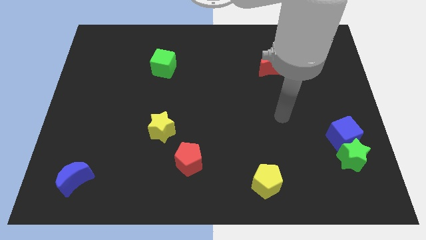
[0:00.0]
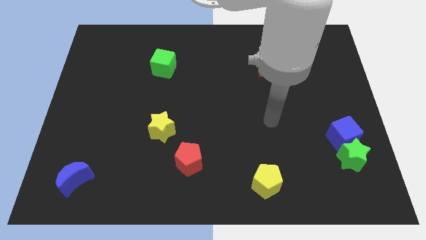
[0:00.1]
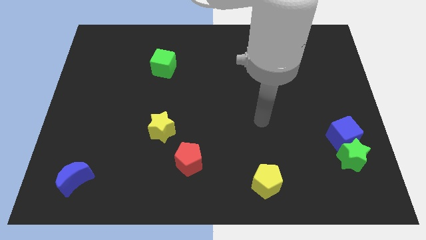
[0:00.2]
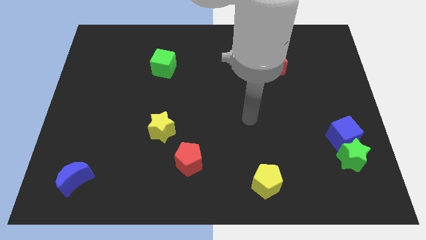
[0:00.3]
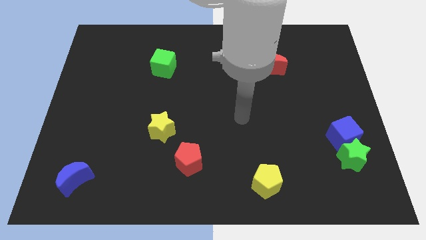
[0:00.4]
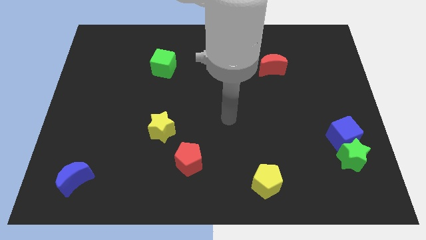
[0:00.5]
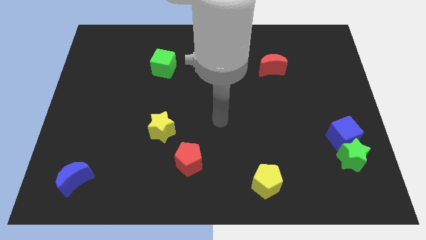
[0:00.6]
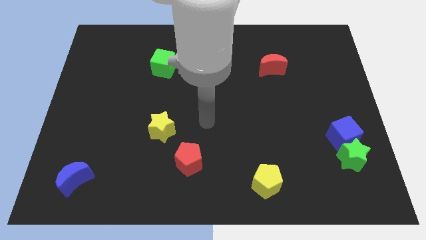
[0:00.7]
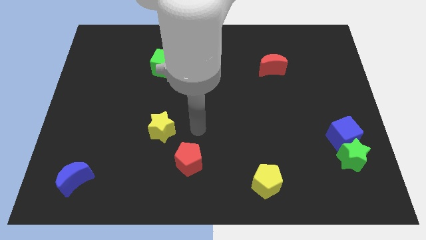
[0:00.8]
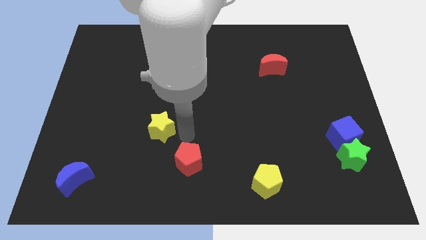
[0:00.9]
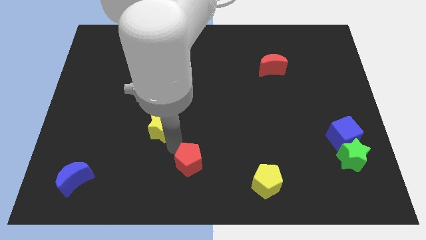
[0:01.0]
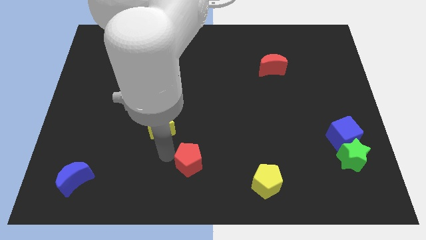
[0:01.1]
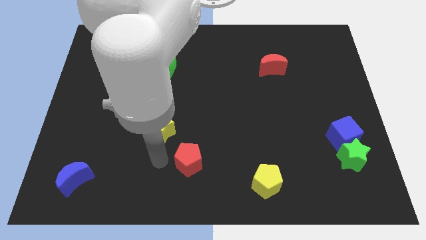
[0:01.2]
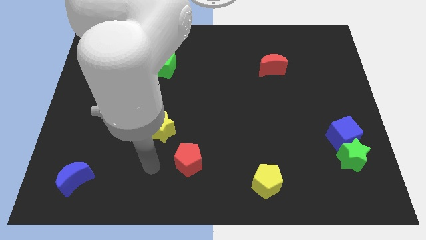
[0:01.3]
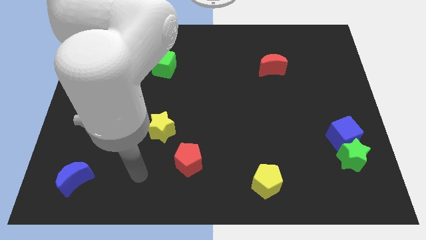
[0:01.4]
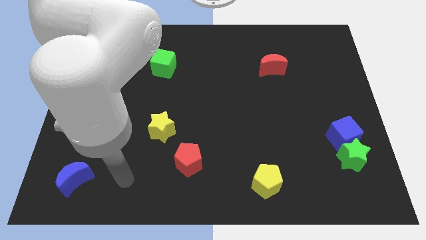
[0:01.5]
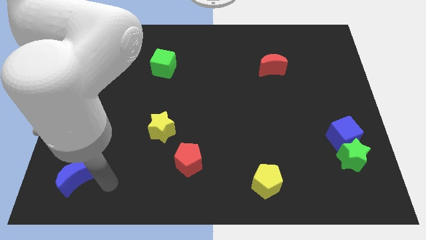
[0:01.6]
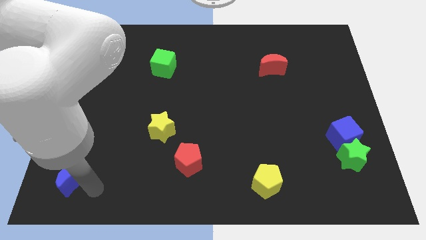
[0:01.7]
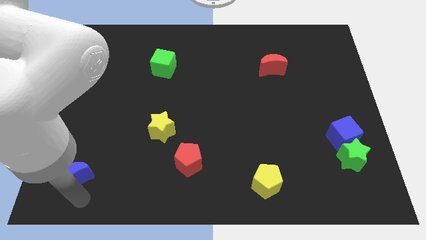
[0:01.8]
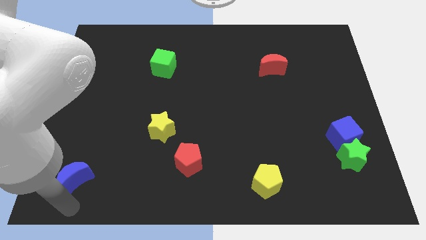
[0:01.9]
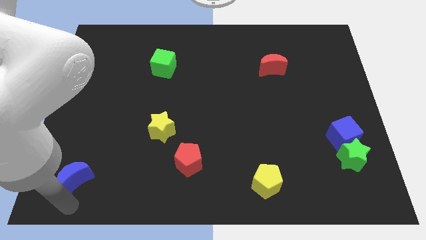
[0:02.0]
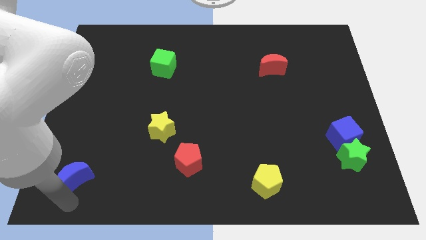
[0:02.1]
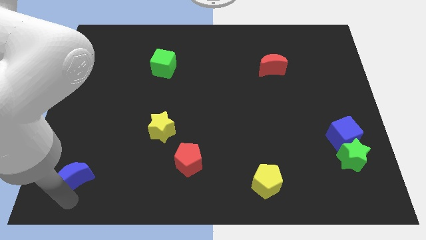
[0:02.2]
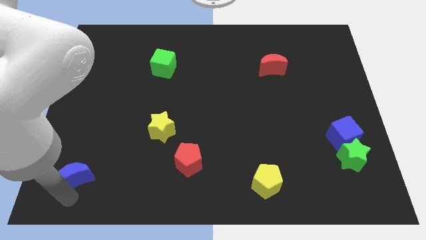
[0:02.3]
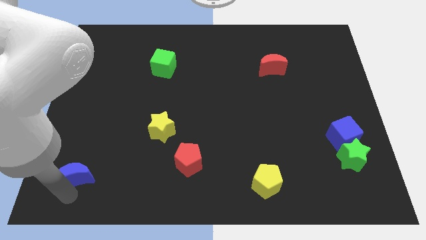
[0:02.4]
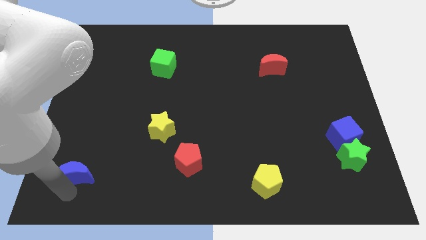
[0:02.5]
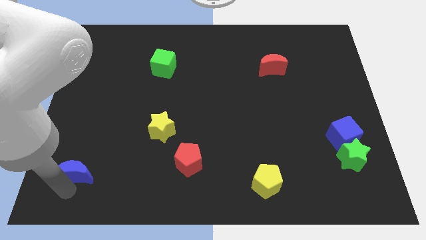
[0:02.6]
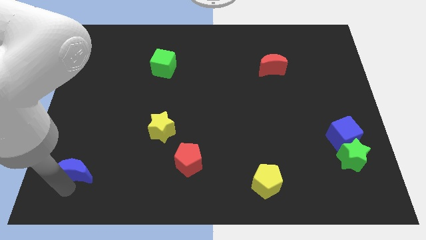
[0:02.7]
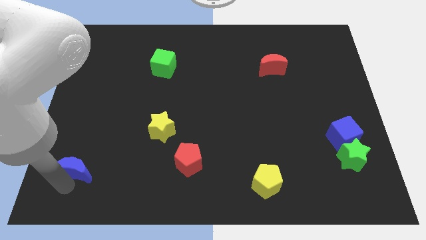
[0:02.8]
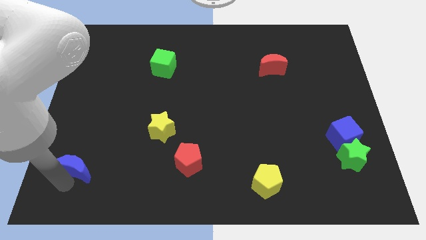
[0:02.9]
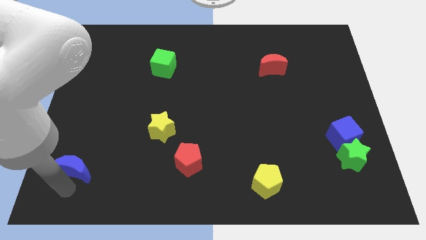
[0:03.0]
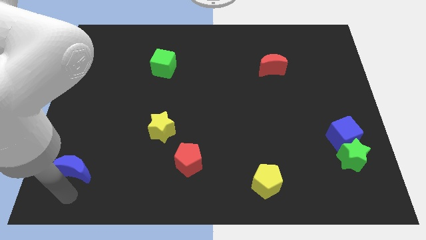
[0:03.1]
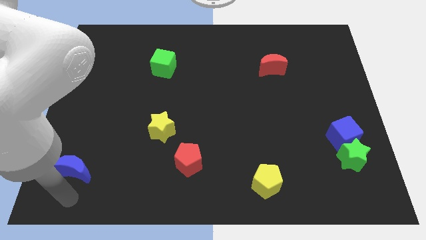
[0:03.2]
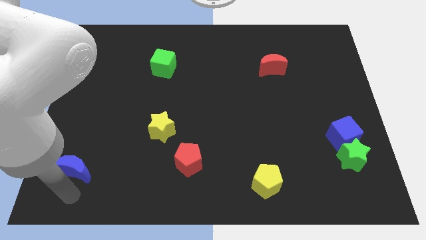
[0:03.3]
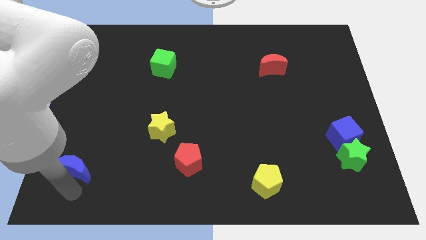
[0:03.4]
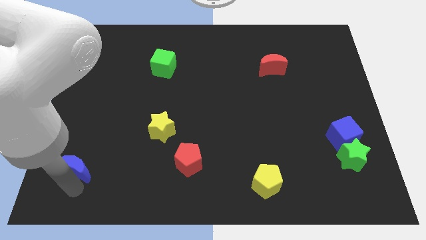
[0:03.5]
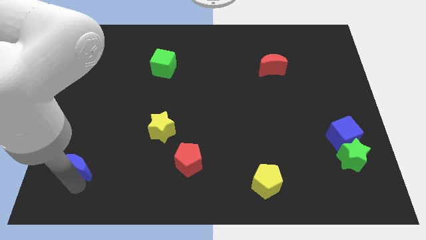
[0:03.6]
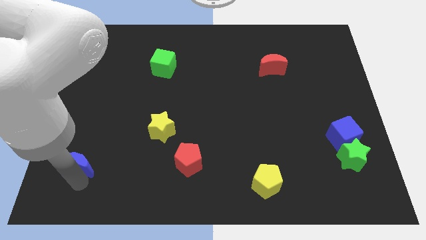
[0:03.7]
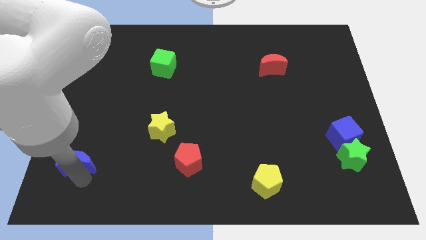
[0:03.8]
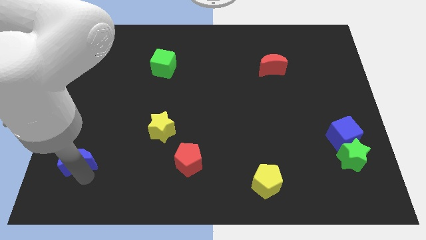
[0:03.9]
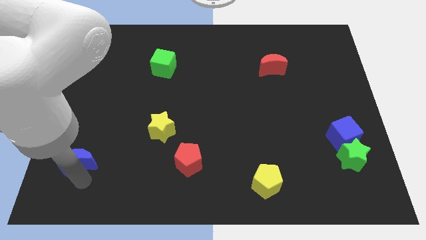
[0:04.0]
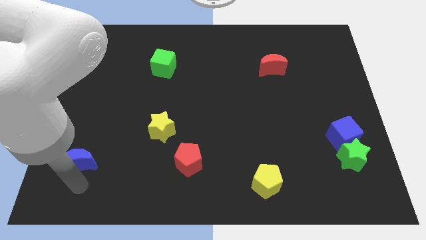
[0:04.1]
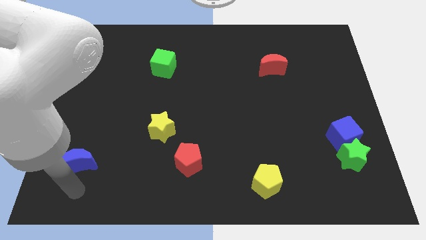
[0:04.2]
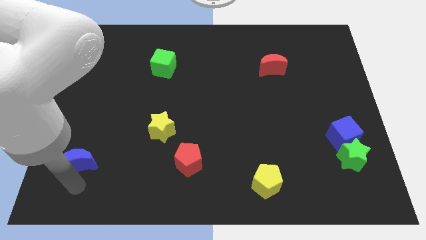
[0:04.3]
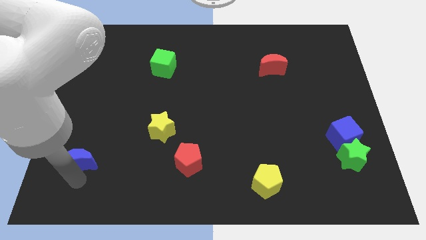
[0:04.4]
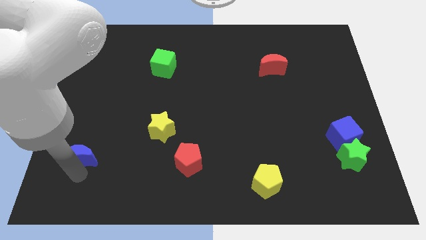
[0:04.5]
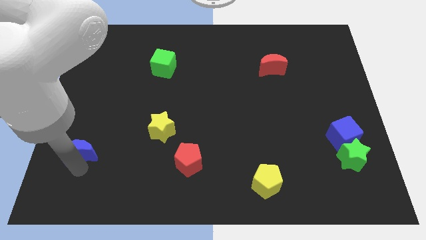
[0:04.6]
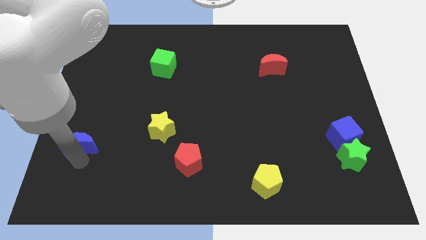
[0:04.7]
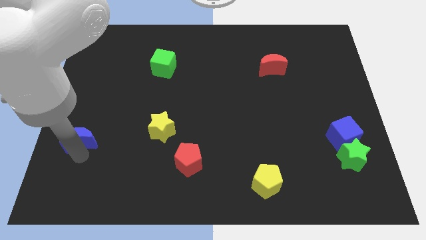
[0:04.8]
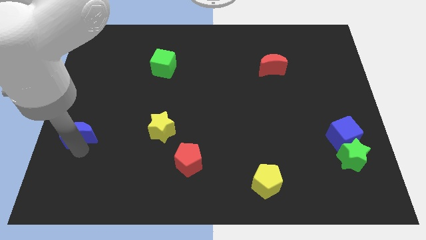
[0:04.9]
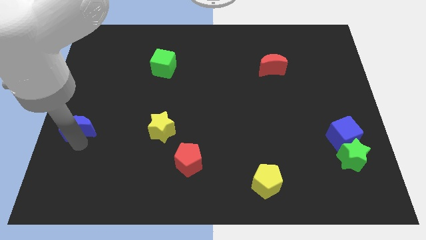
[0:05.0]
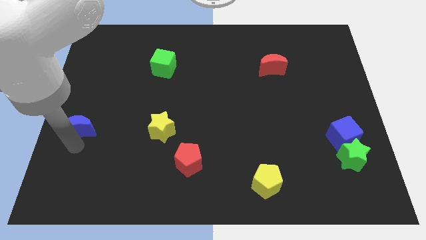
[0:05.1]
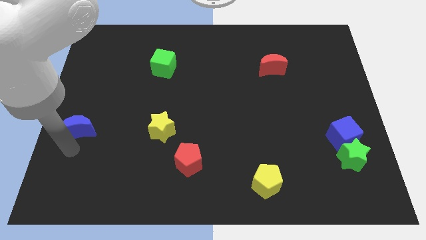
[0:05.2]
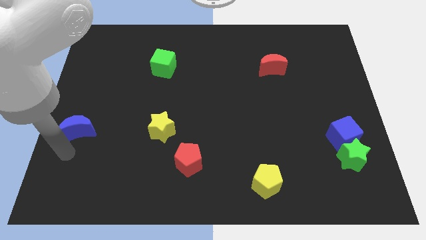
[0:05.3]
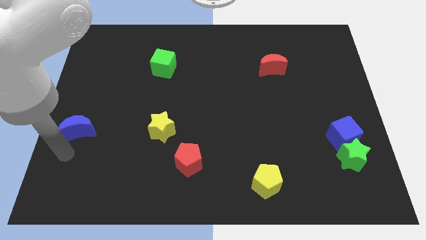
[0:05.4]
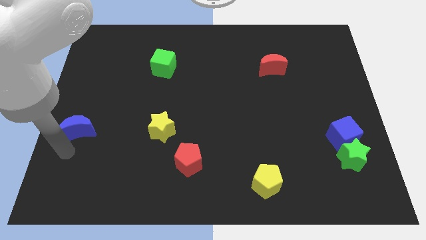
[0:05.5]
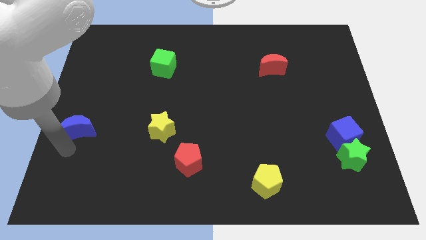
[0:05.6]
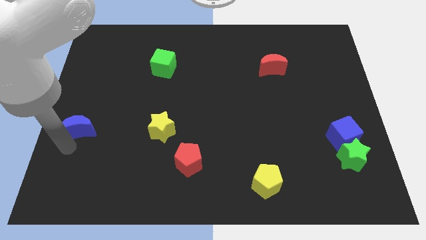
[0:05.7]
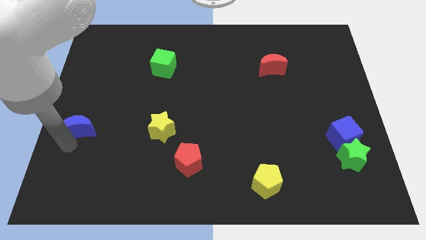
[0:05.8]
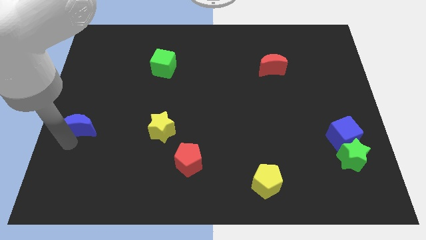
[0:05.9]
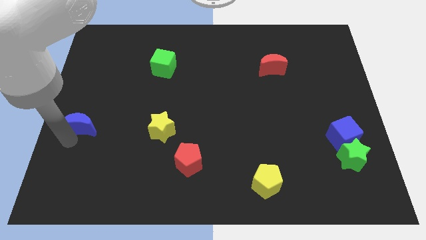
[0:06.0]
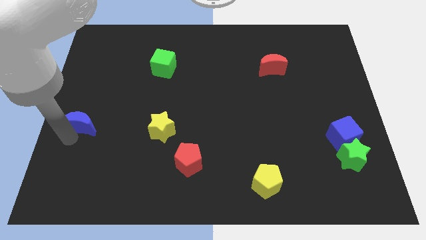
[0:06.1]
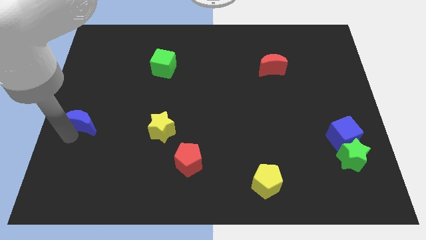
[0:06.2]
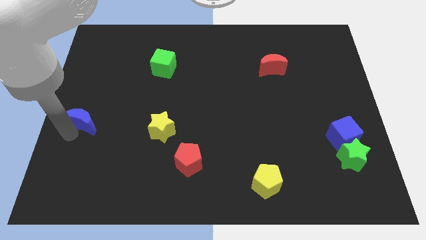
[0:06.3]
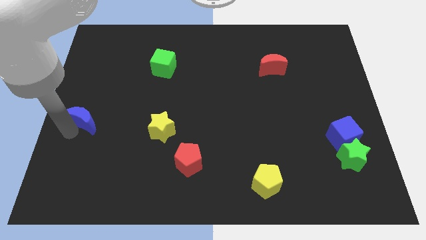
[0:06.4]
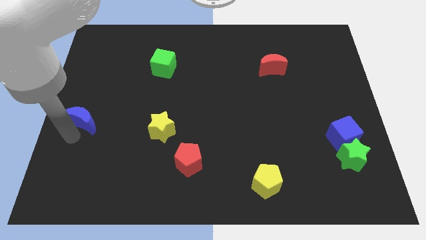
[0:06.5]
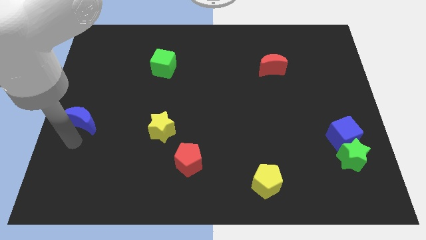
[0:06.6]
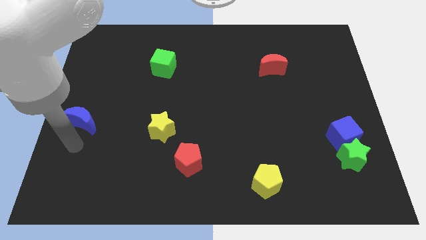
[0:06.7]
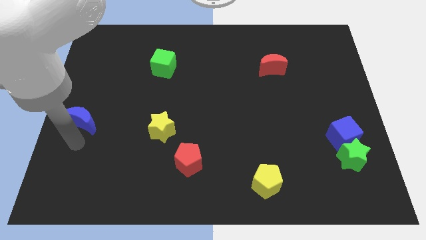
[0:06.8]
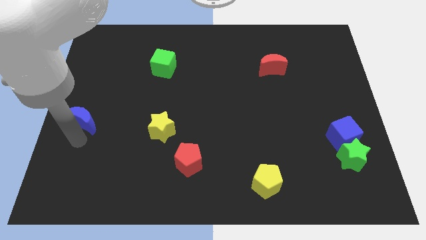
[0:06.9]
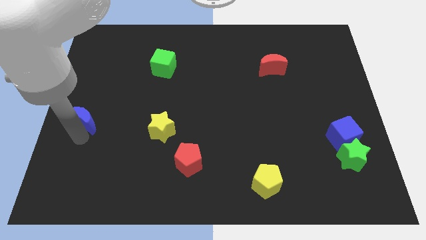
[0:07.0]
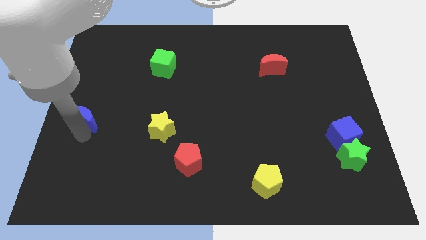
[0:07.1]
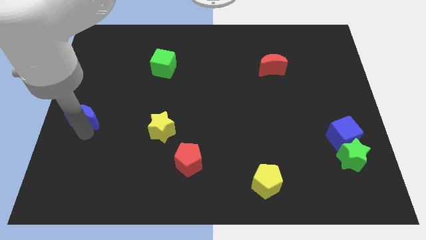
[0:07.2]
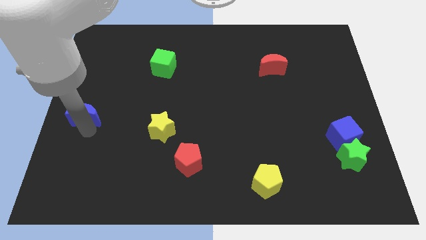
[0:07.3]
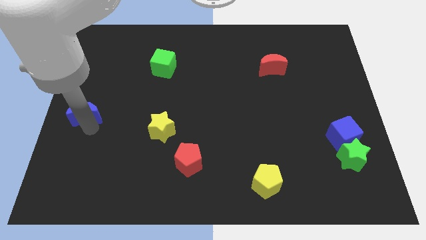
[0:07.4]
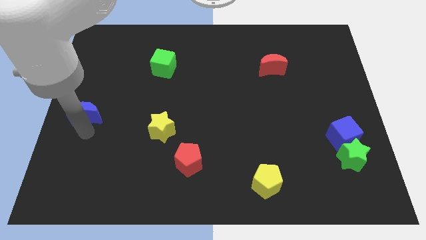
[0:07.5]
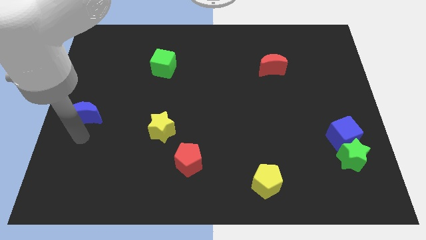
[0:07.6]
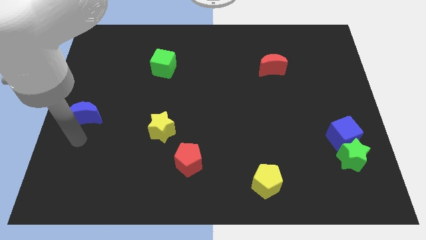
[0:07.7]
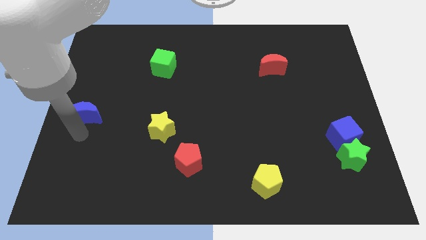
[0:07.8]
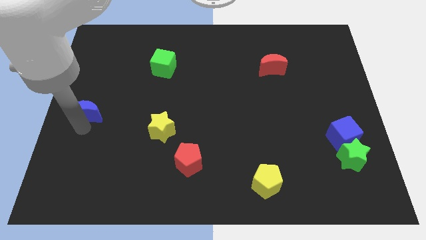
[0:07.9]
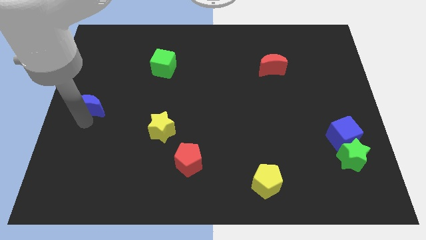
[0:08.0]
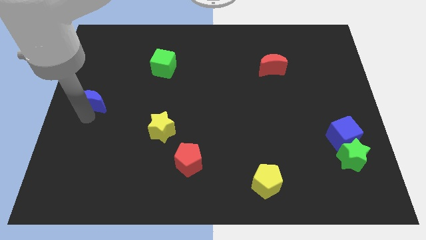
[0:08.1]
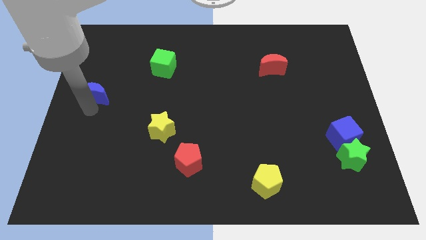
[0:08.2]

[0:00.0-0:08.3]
slide the blue moon upwards
